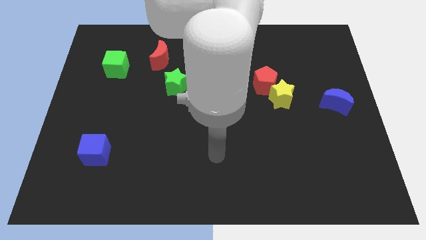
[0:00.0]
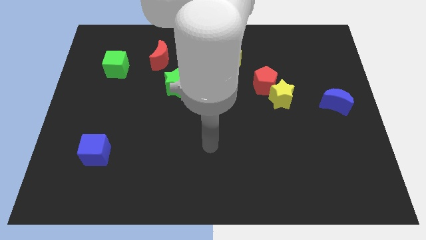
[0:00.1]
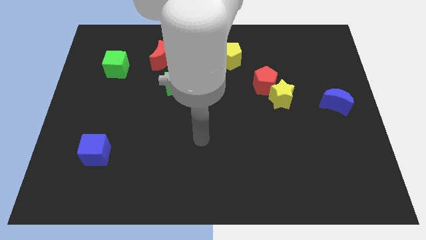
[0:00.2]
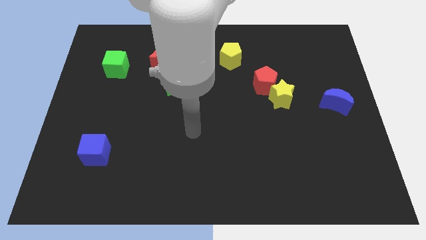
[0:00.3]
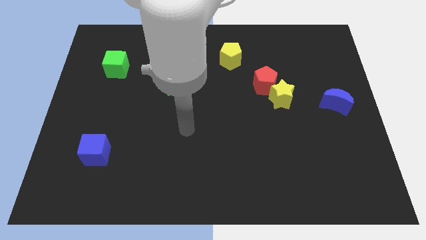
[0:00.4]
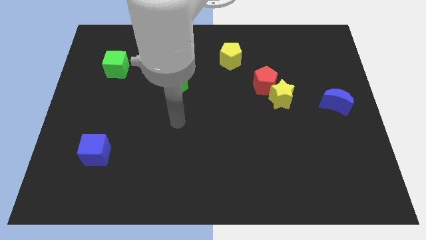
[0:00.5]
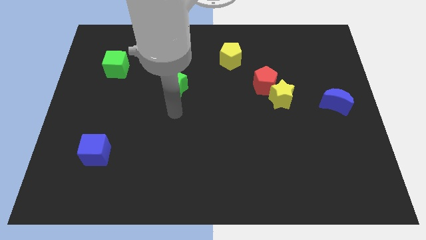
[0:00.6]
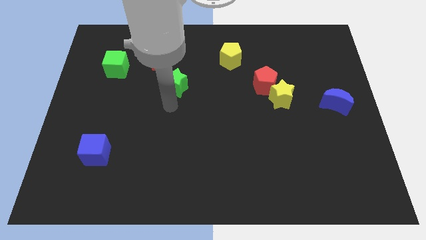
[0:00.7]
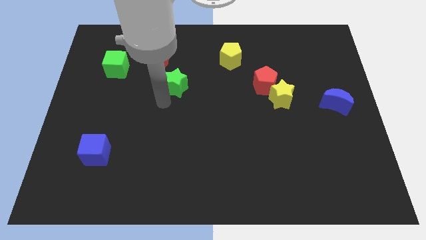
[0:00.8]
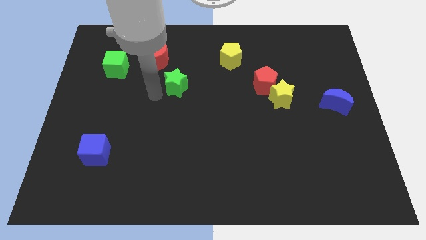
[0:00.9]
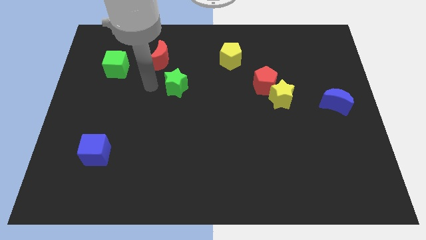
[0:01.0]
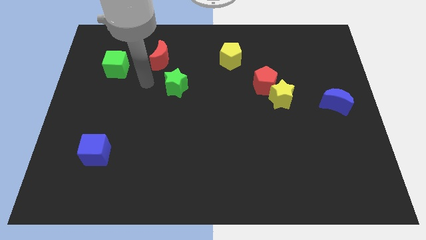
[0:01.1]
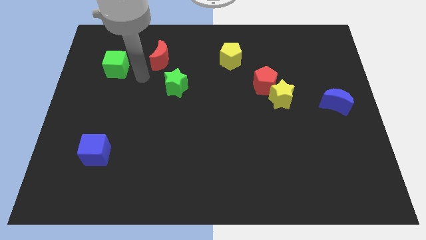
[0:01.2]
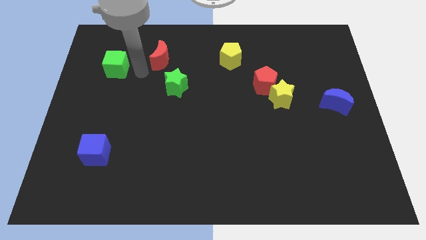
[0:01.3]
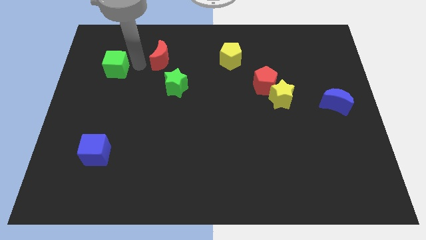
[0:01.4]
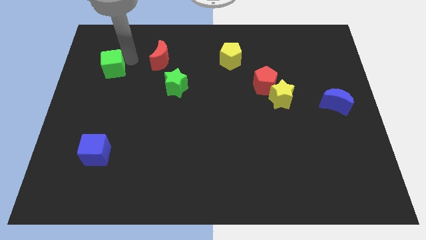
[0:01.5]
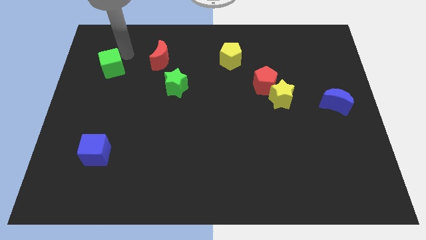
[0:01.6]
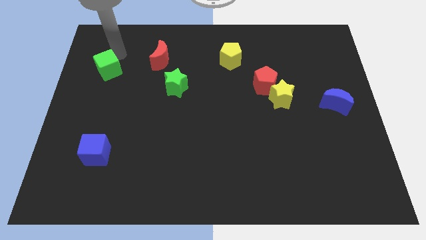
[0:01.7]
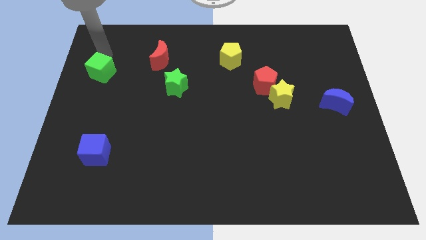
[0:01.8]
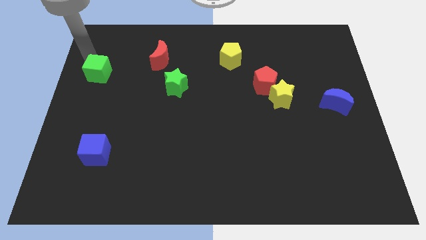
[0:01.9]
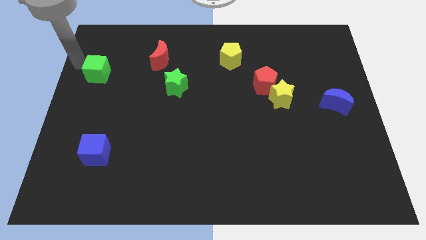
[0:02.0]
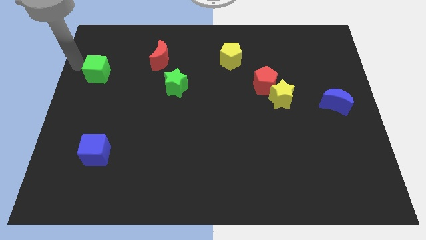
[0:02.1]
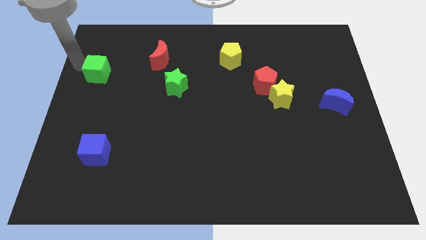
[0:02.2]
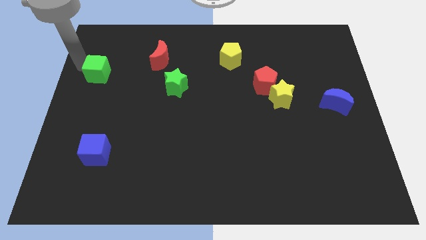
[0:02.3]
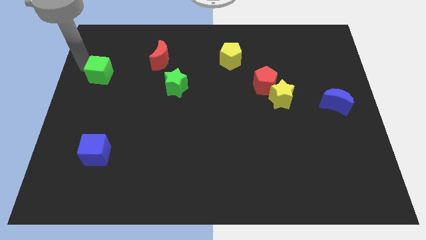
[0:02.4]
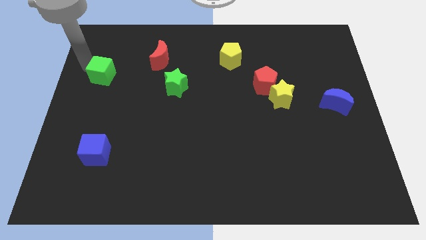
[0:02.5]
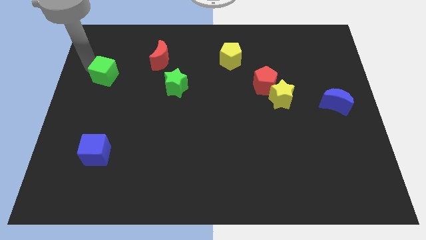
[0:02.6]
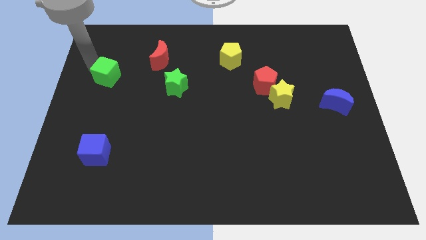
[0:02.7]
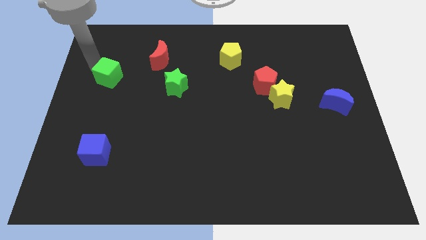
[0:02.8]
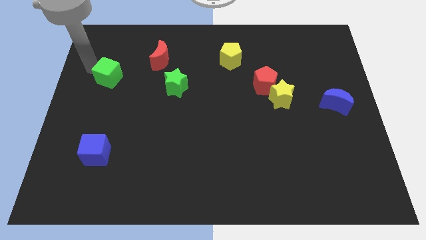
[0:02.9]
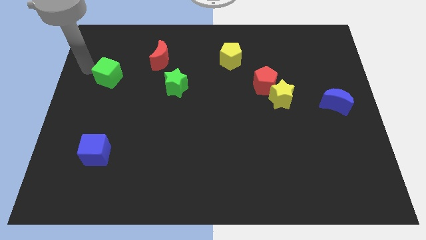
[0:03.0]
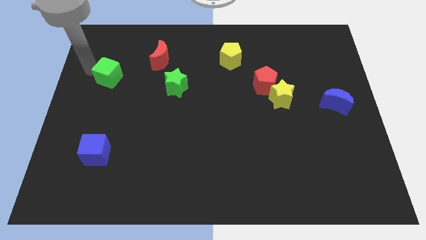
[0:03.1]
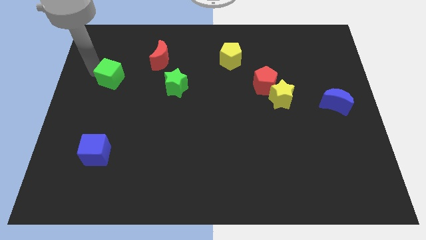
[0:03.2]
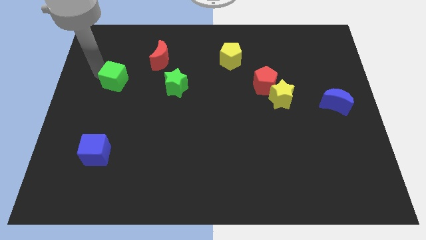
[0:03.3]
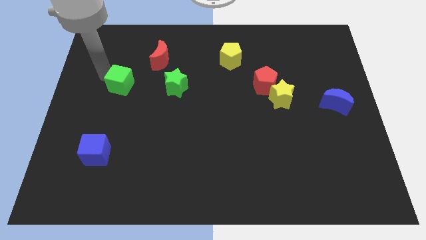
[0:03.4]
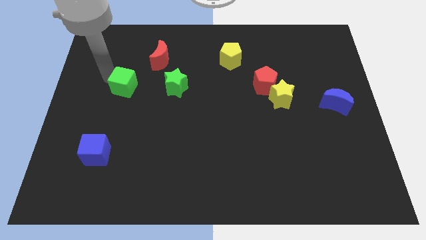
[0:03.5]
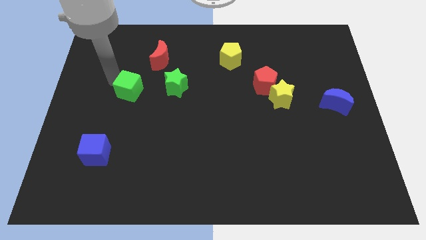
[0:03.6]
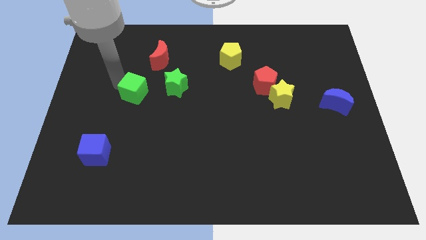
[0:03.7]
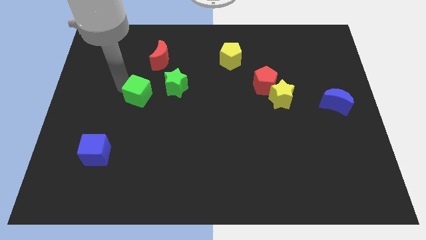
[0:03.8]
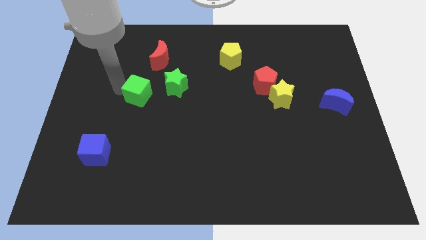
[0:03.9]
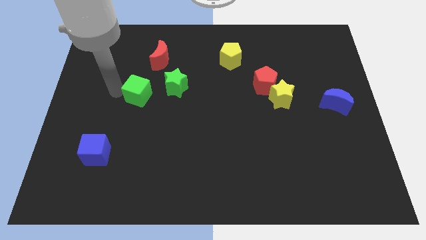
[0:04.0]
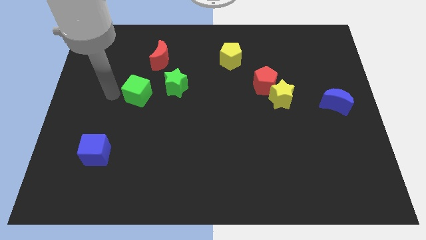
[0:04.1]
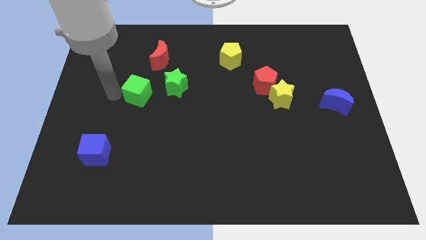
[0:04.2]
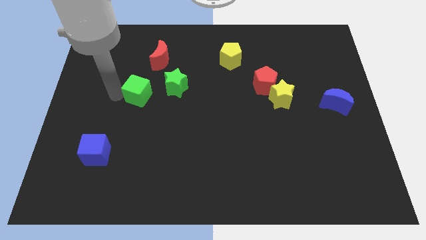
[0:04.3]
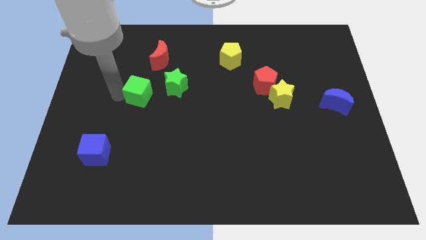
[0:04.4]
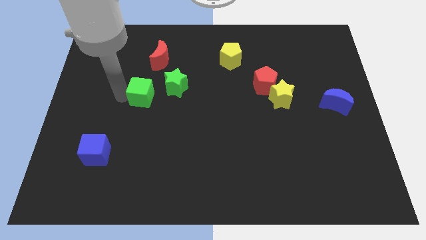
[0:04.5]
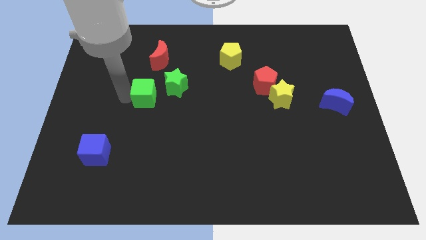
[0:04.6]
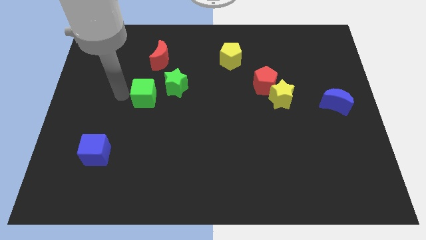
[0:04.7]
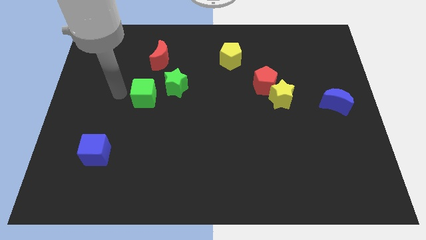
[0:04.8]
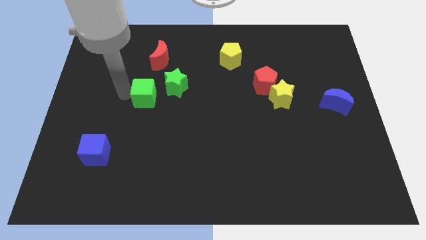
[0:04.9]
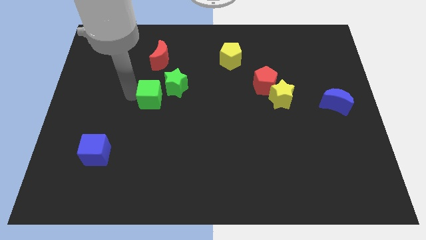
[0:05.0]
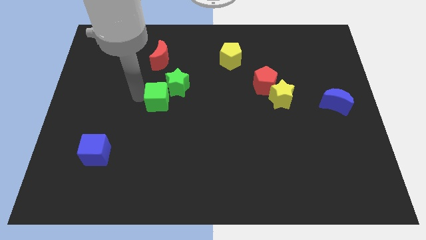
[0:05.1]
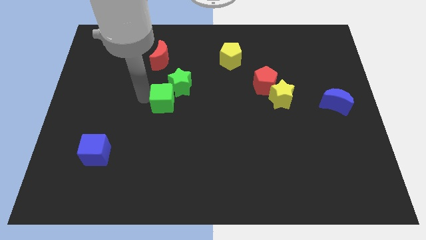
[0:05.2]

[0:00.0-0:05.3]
push the green cube to the middle of the board

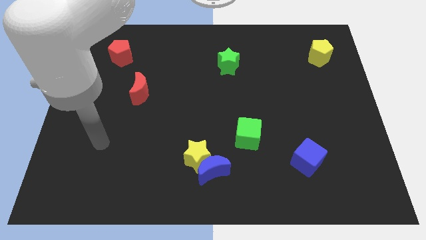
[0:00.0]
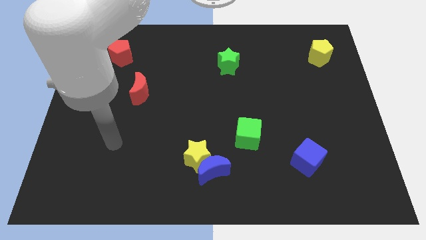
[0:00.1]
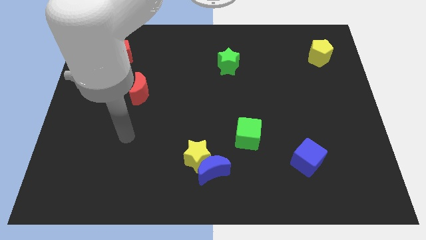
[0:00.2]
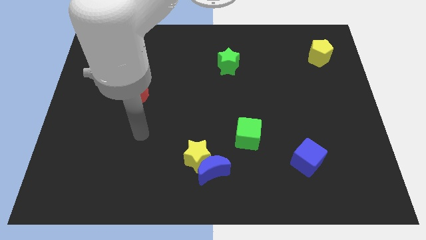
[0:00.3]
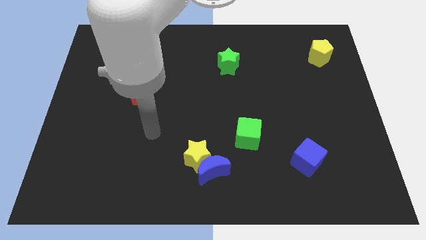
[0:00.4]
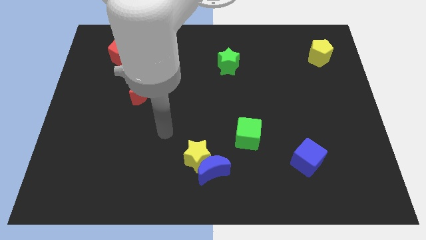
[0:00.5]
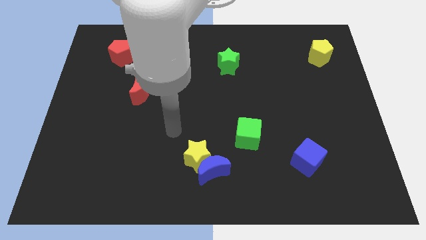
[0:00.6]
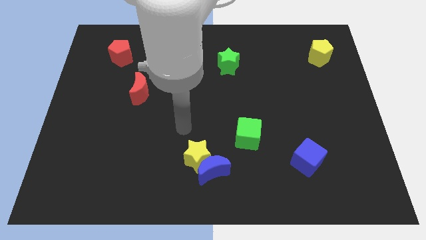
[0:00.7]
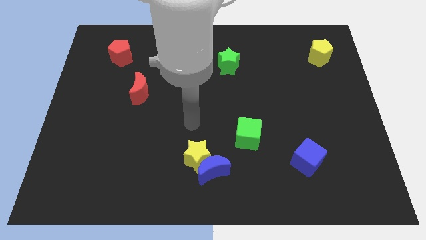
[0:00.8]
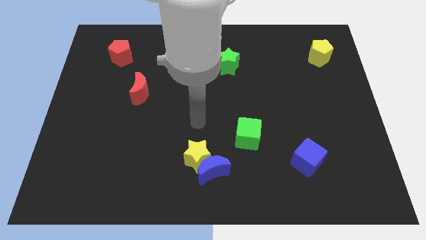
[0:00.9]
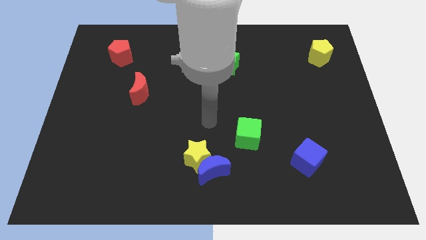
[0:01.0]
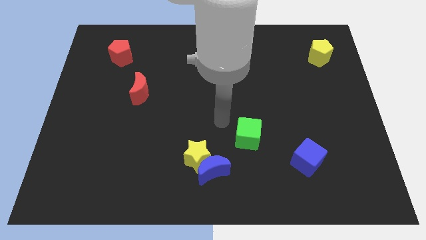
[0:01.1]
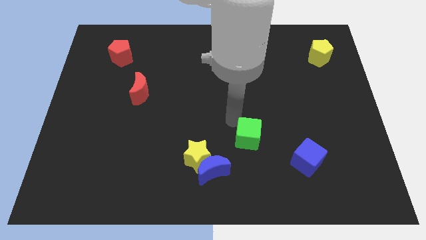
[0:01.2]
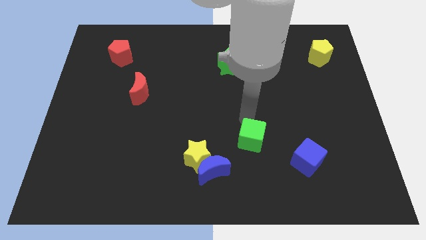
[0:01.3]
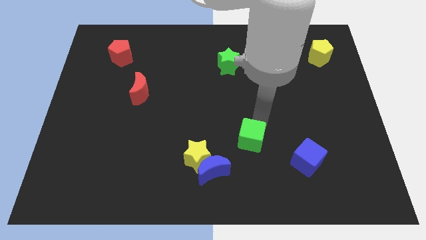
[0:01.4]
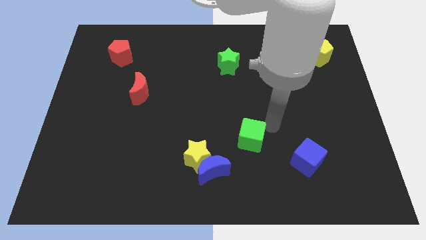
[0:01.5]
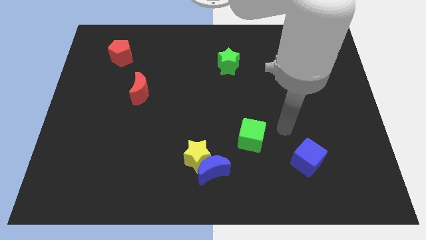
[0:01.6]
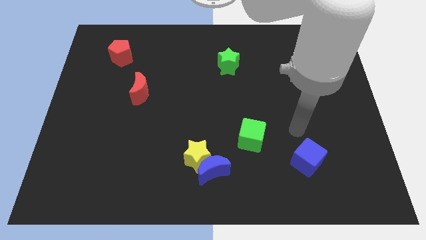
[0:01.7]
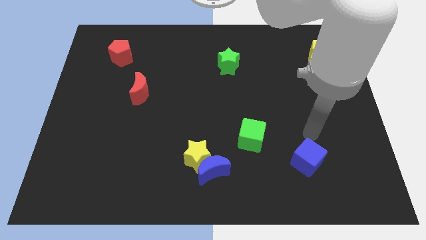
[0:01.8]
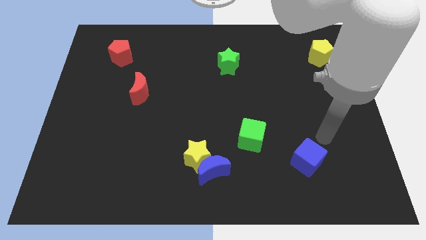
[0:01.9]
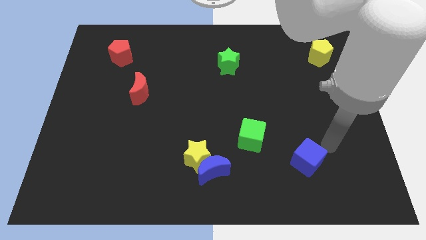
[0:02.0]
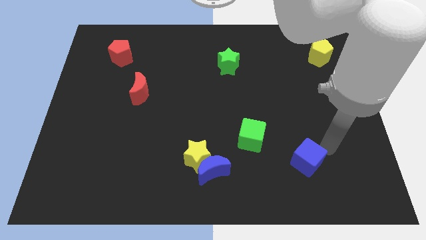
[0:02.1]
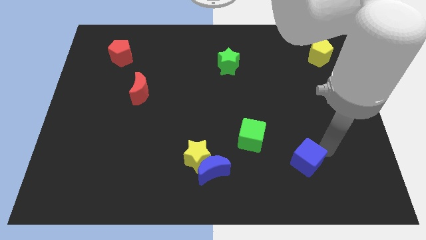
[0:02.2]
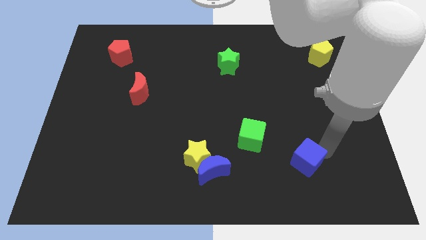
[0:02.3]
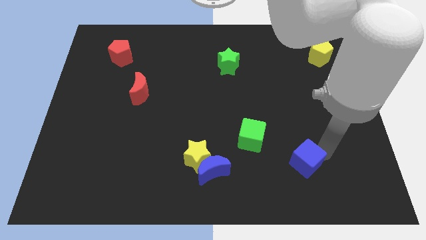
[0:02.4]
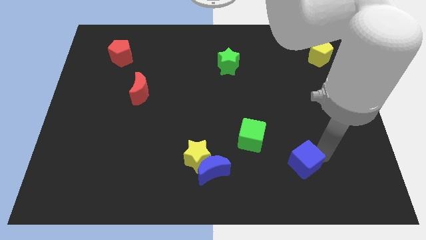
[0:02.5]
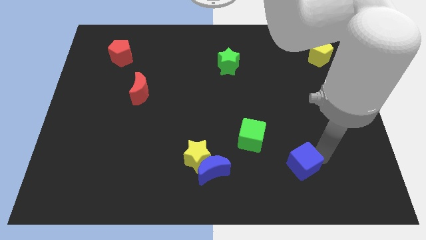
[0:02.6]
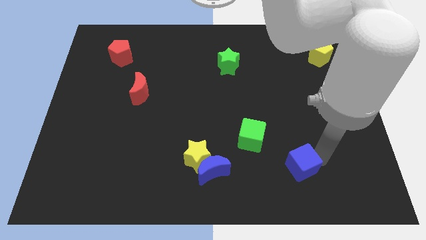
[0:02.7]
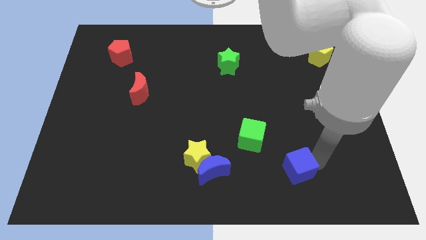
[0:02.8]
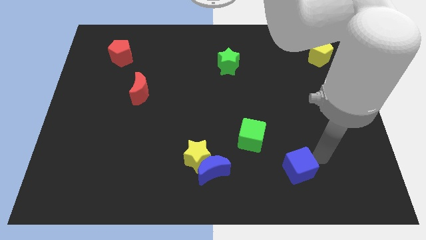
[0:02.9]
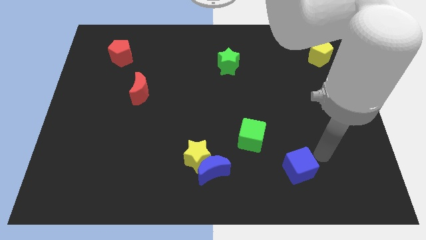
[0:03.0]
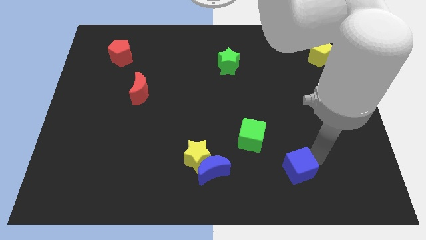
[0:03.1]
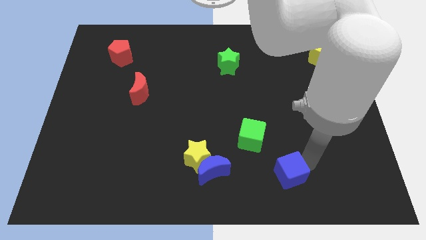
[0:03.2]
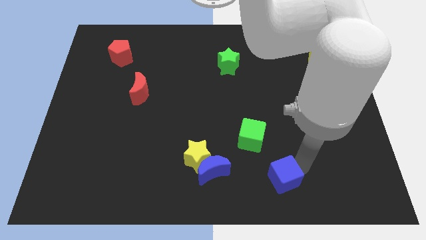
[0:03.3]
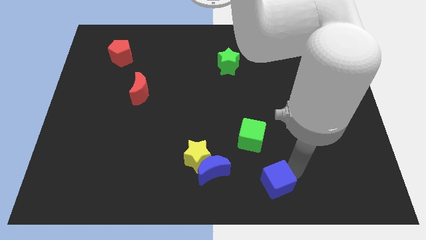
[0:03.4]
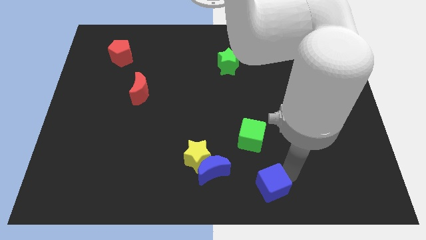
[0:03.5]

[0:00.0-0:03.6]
slide the blue cube to the bottom side
